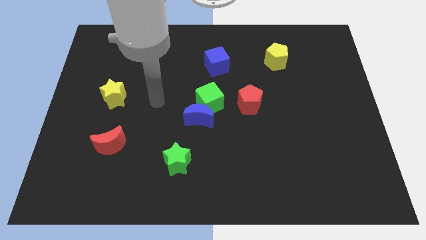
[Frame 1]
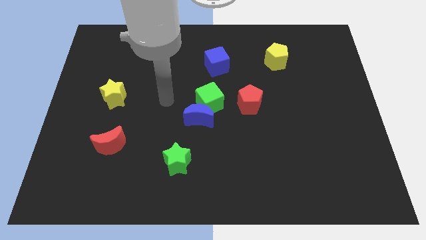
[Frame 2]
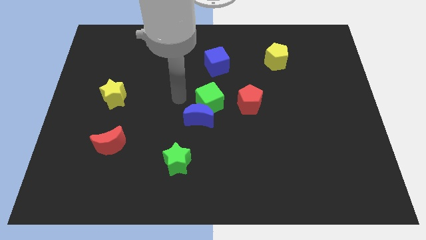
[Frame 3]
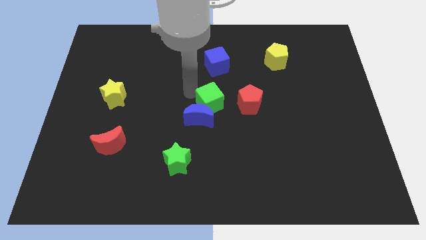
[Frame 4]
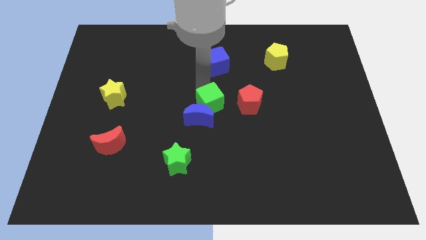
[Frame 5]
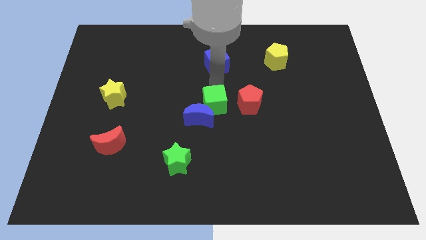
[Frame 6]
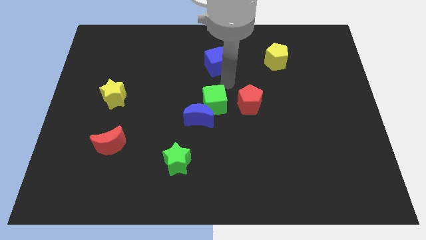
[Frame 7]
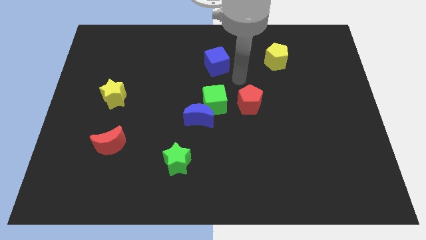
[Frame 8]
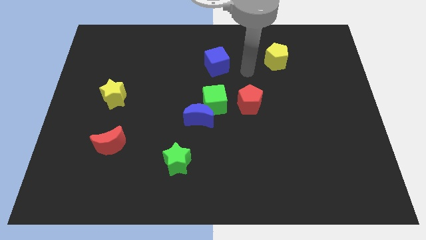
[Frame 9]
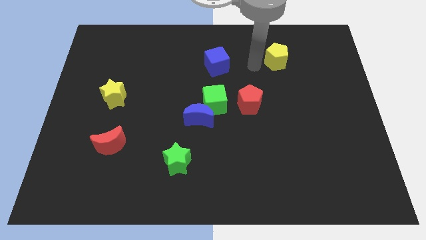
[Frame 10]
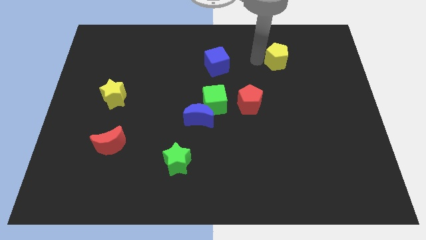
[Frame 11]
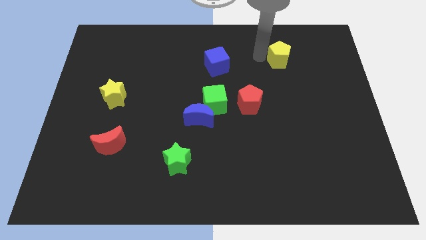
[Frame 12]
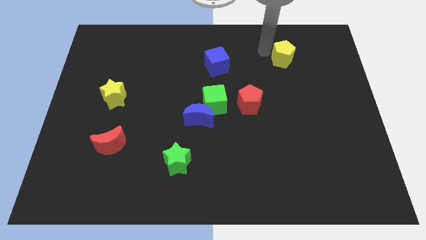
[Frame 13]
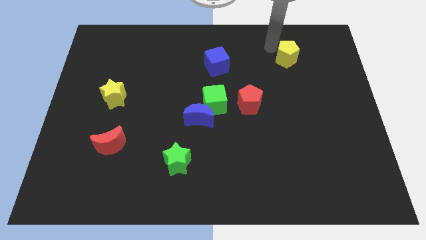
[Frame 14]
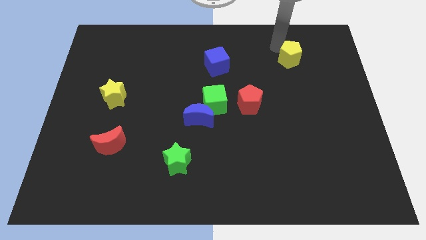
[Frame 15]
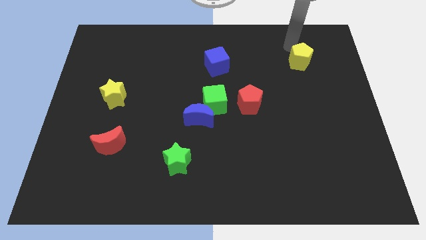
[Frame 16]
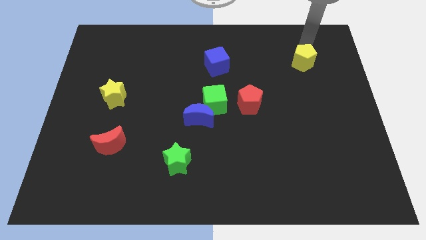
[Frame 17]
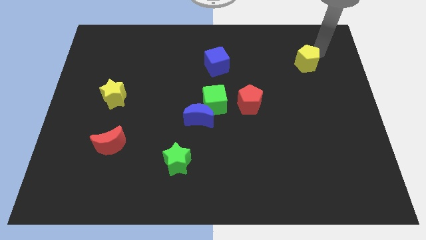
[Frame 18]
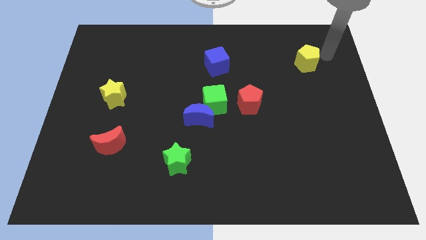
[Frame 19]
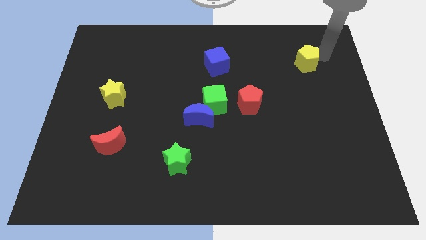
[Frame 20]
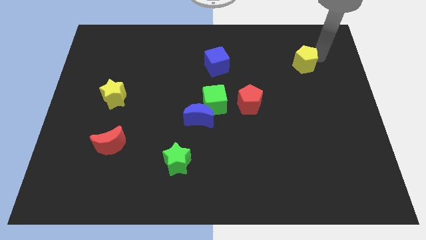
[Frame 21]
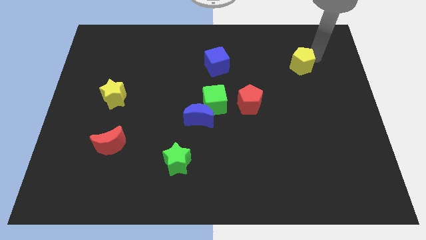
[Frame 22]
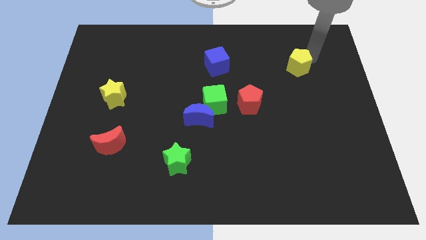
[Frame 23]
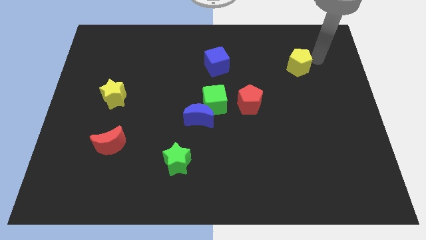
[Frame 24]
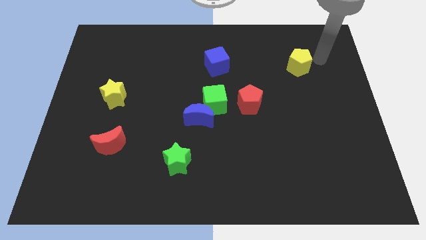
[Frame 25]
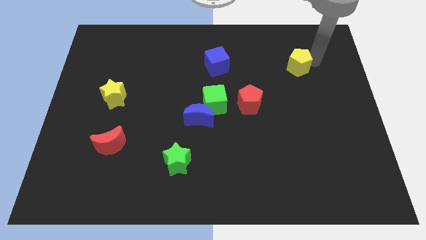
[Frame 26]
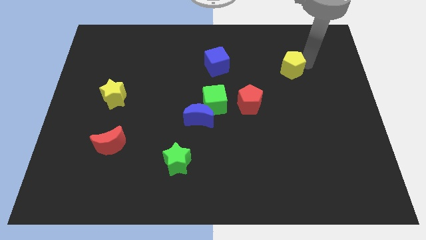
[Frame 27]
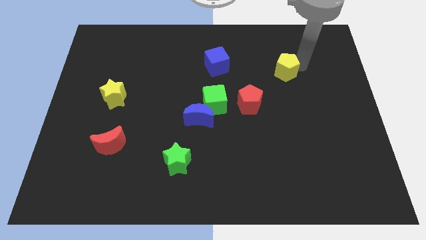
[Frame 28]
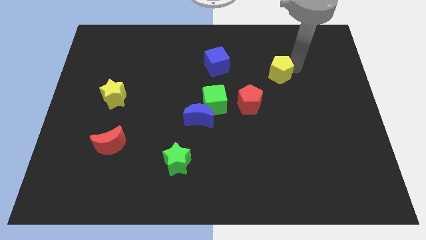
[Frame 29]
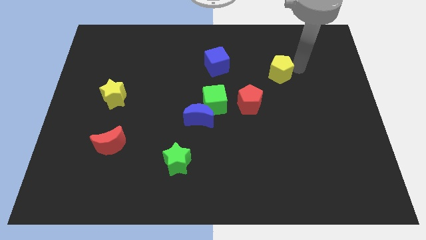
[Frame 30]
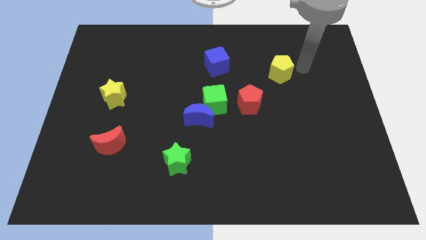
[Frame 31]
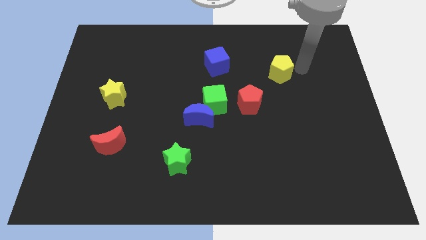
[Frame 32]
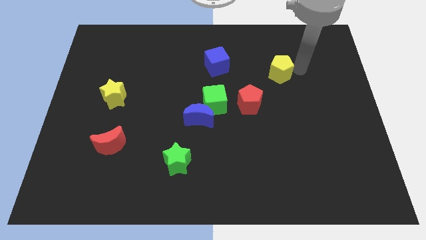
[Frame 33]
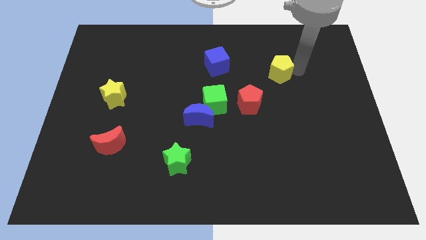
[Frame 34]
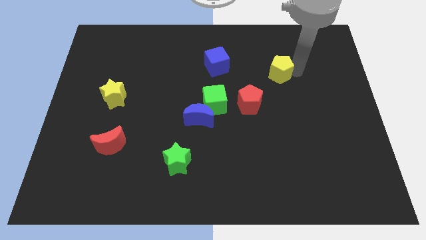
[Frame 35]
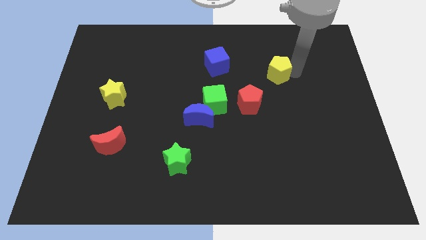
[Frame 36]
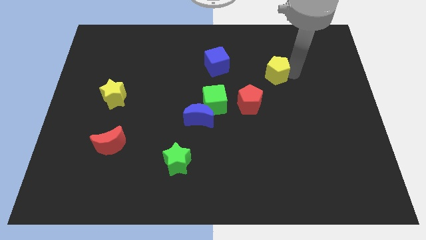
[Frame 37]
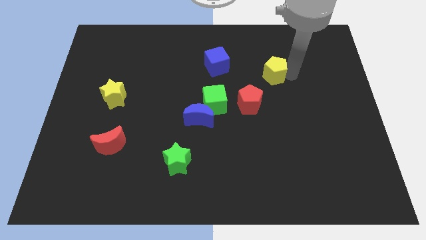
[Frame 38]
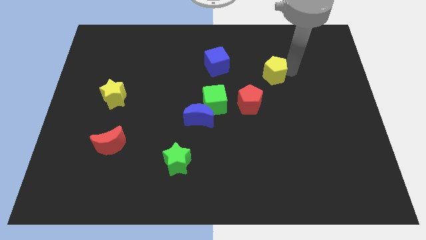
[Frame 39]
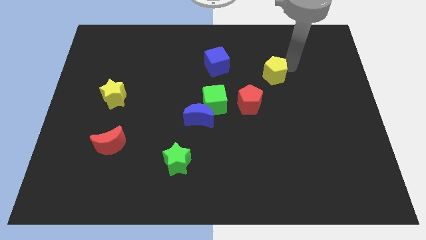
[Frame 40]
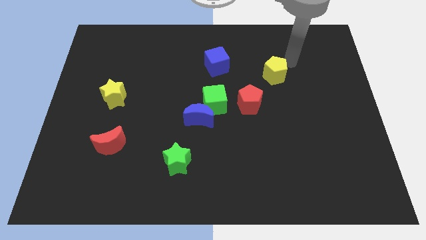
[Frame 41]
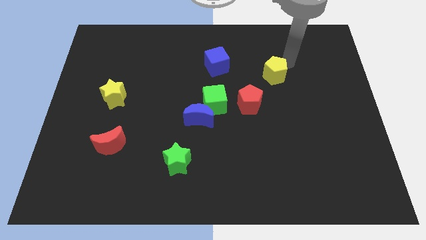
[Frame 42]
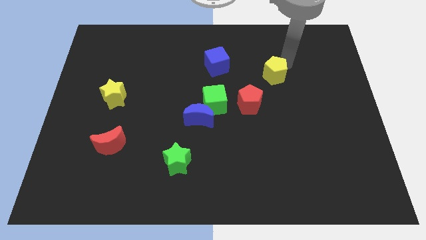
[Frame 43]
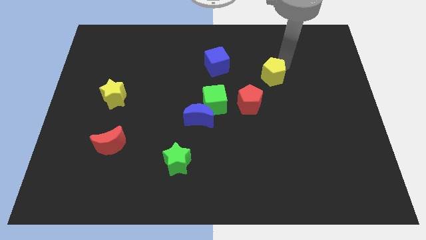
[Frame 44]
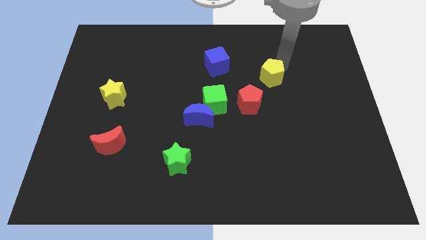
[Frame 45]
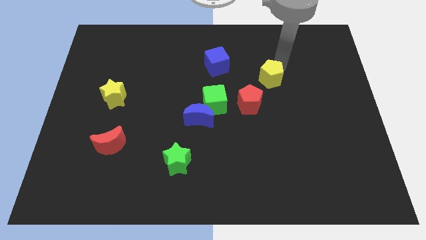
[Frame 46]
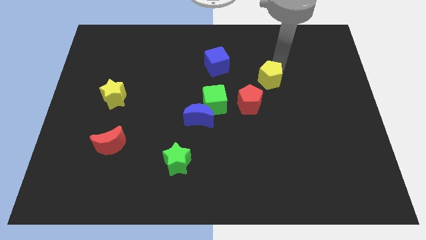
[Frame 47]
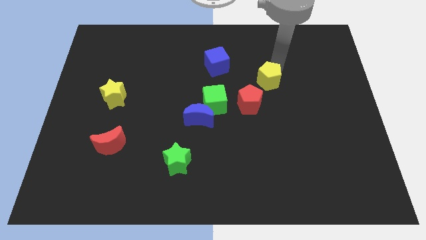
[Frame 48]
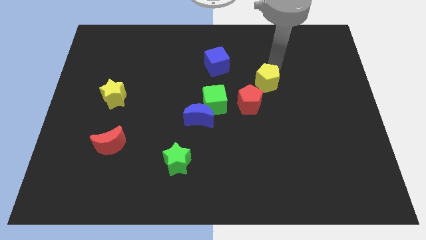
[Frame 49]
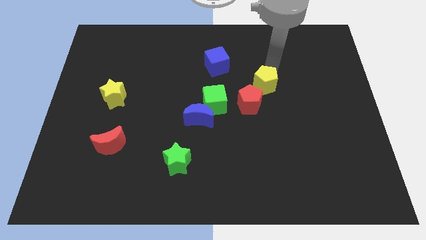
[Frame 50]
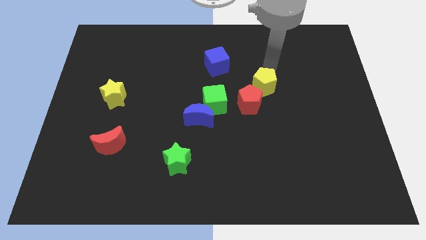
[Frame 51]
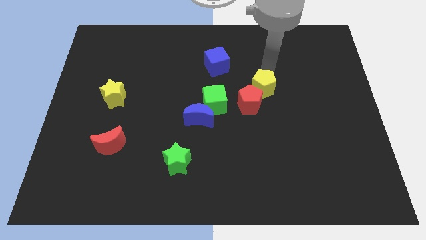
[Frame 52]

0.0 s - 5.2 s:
push the yellow pentagon to the red pentagon

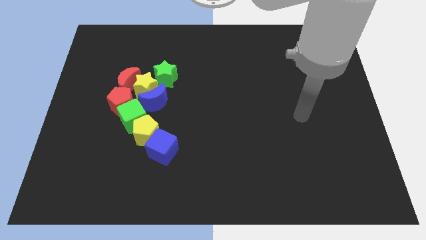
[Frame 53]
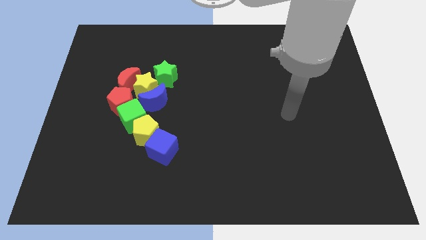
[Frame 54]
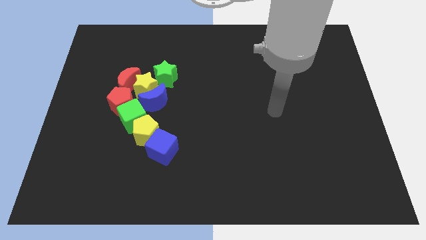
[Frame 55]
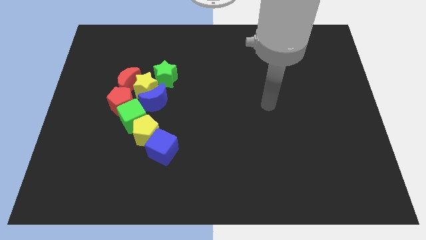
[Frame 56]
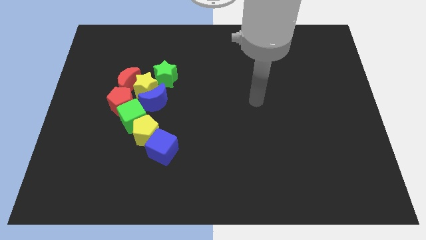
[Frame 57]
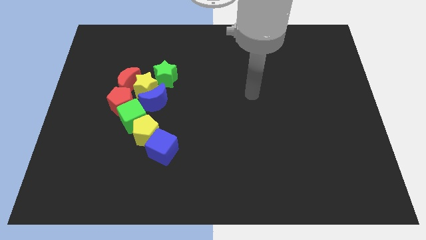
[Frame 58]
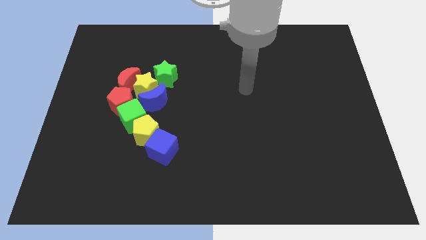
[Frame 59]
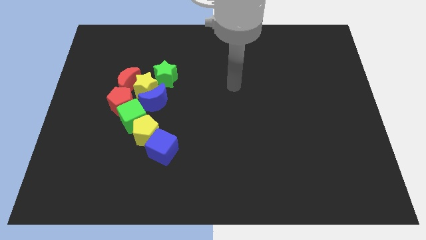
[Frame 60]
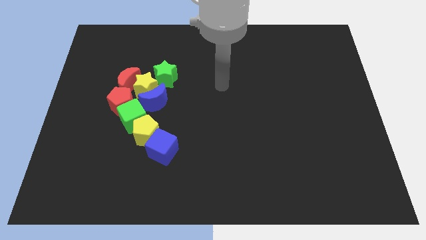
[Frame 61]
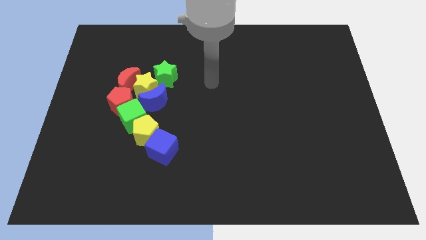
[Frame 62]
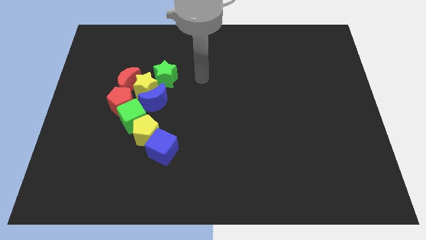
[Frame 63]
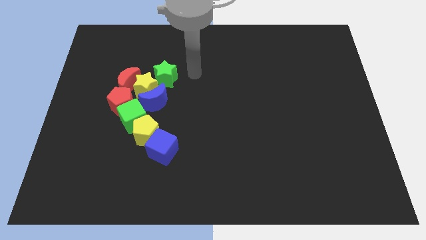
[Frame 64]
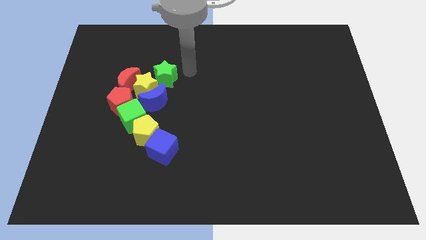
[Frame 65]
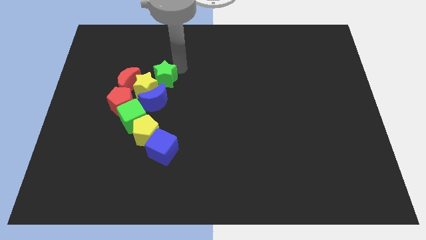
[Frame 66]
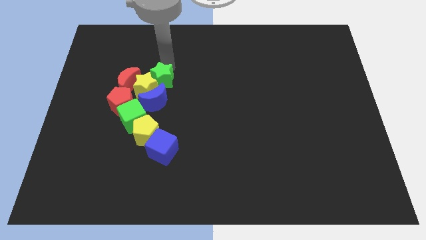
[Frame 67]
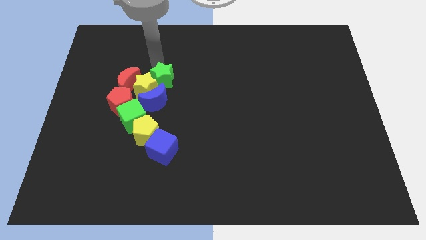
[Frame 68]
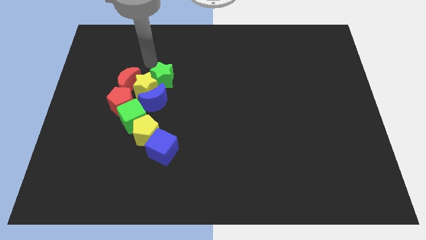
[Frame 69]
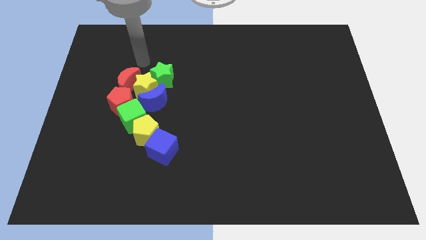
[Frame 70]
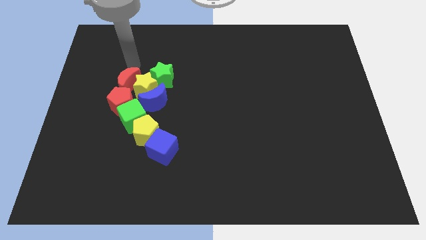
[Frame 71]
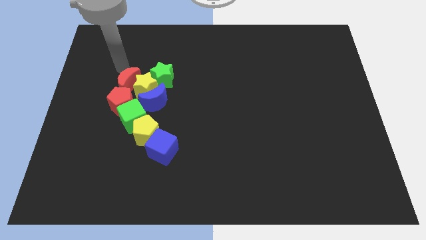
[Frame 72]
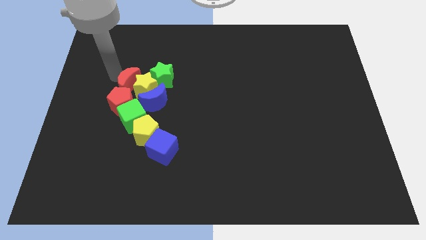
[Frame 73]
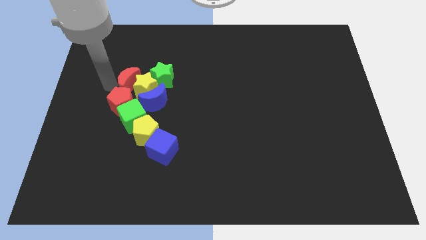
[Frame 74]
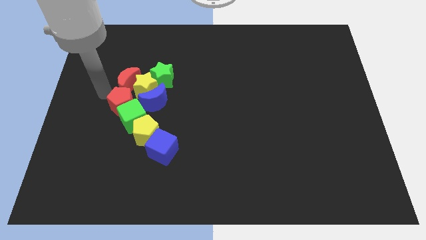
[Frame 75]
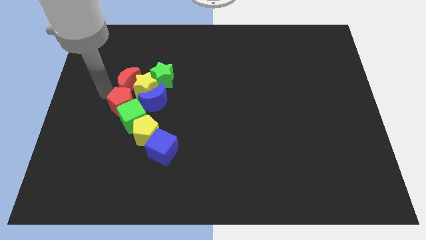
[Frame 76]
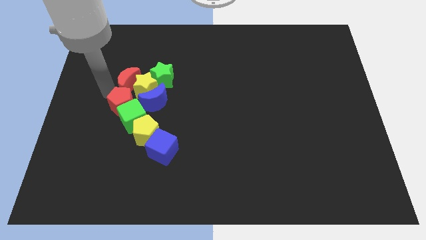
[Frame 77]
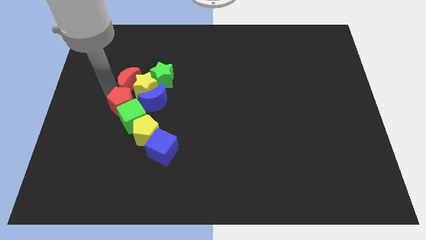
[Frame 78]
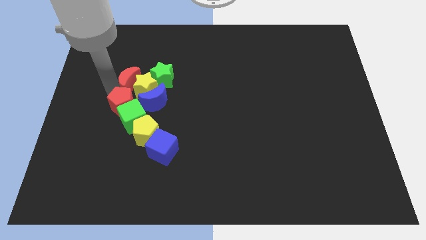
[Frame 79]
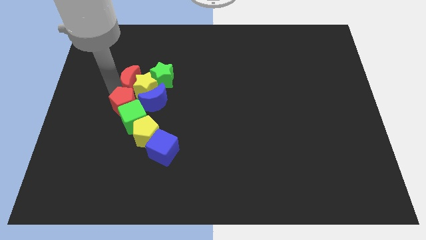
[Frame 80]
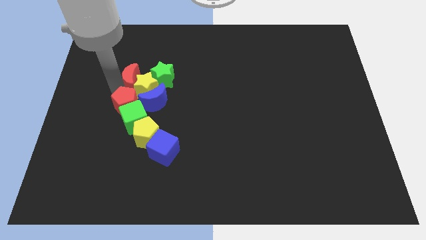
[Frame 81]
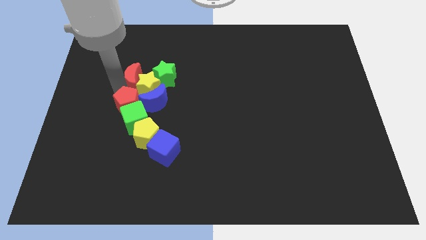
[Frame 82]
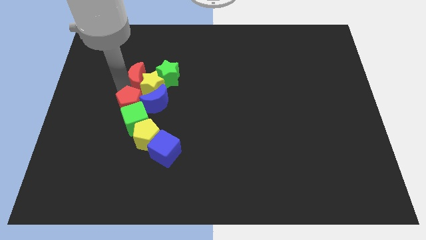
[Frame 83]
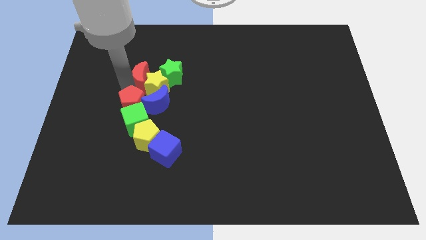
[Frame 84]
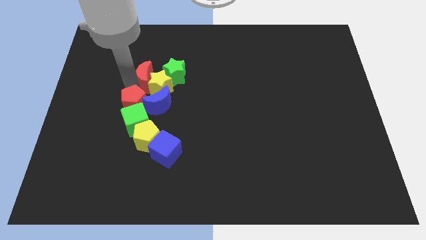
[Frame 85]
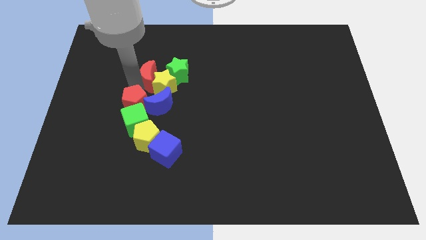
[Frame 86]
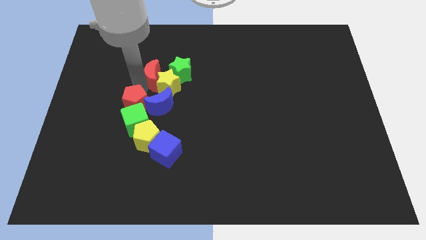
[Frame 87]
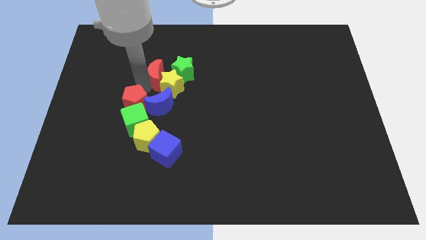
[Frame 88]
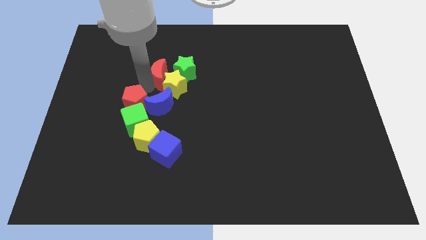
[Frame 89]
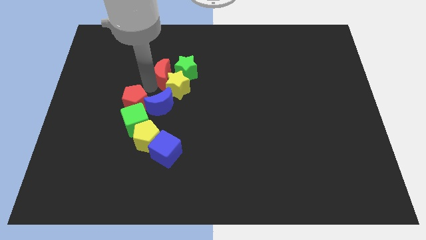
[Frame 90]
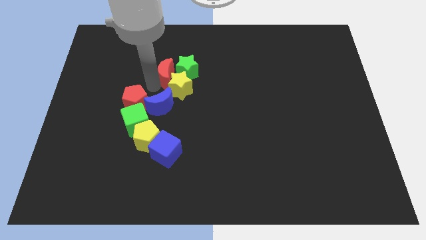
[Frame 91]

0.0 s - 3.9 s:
slide the red moon next to the green star
